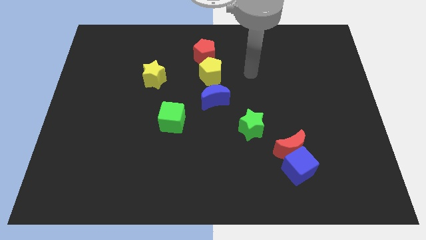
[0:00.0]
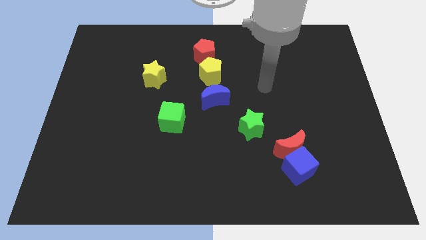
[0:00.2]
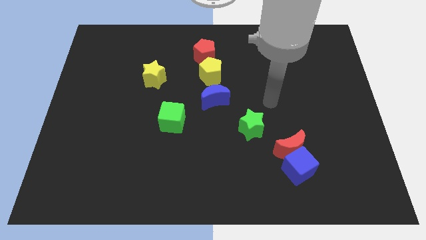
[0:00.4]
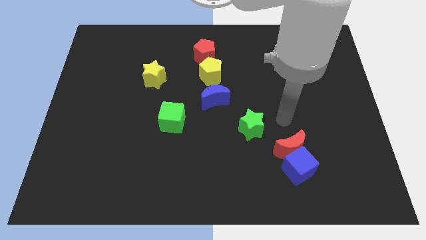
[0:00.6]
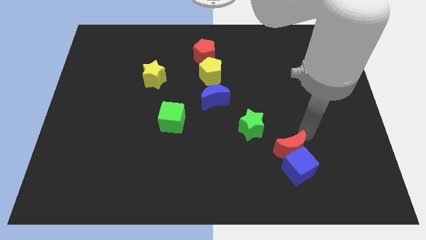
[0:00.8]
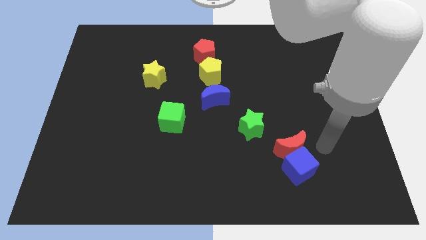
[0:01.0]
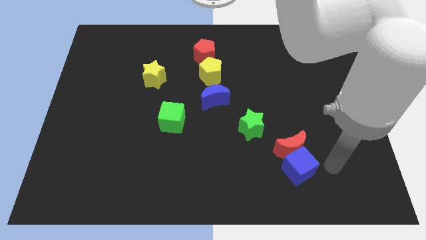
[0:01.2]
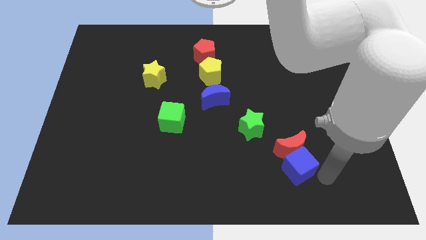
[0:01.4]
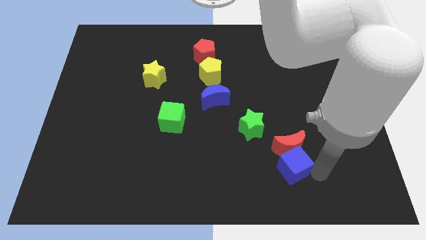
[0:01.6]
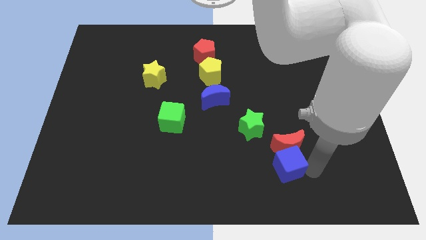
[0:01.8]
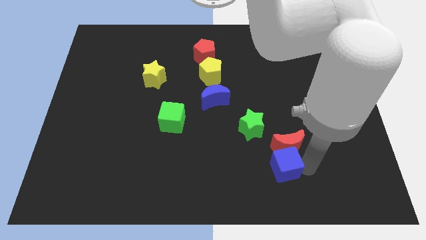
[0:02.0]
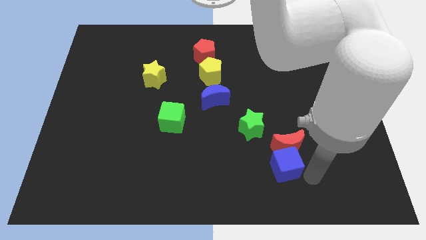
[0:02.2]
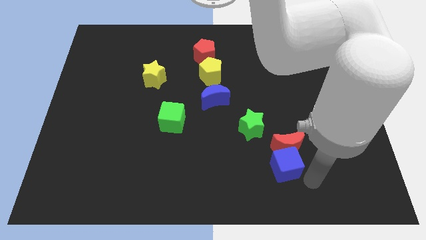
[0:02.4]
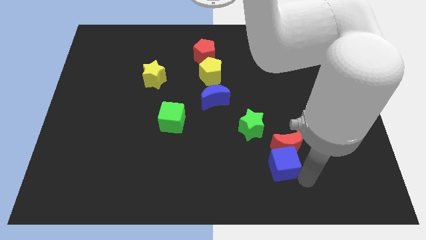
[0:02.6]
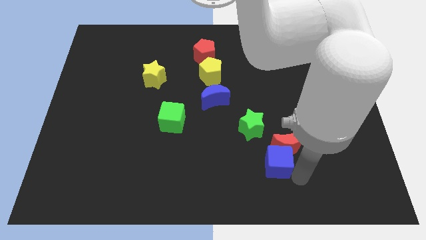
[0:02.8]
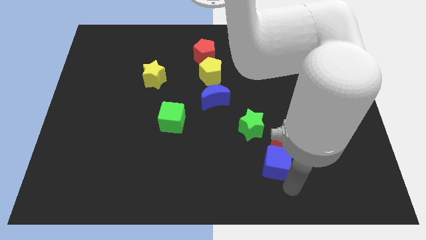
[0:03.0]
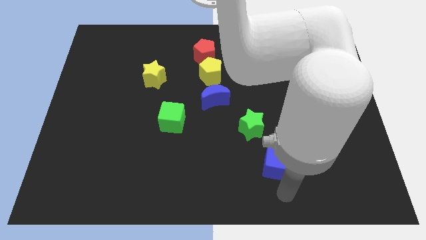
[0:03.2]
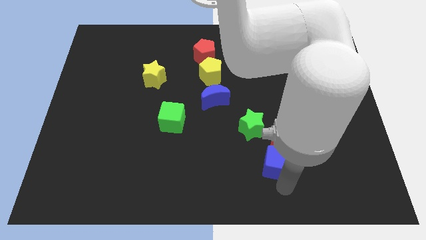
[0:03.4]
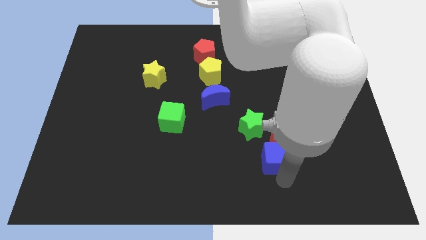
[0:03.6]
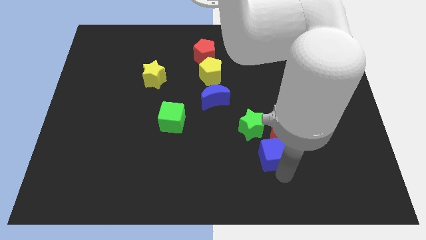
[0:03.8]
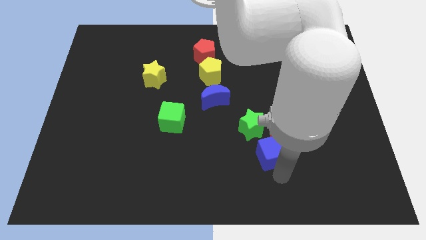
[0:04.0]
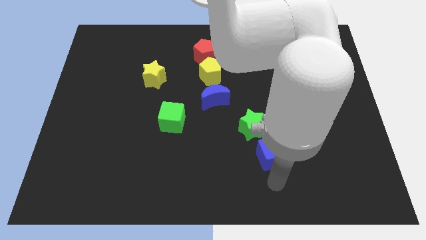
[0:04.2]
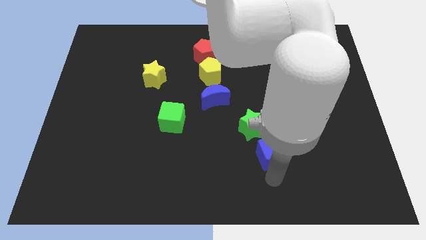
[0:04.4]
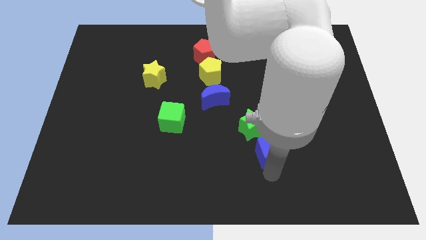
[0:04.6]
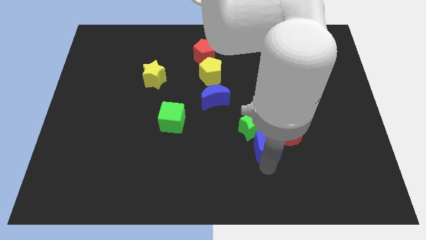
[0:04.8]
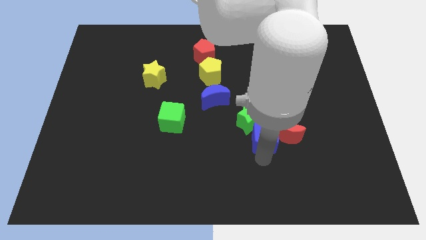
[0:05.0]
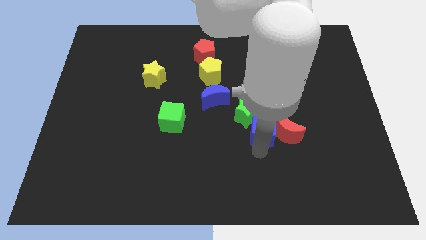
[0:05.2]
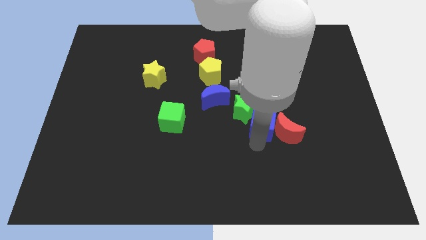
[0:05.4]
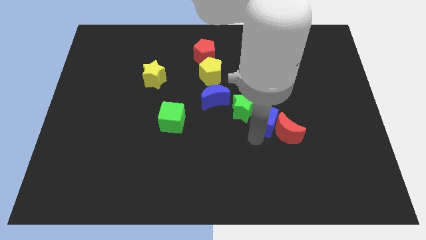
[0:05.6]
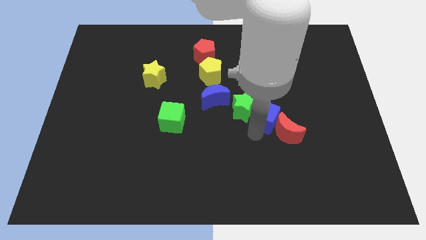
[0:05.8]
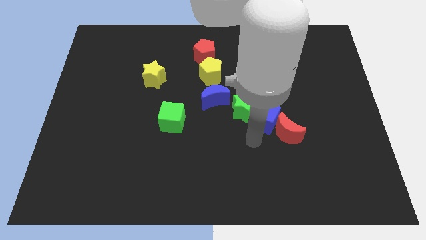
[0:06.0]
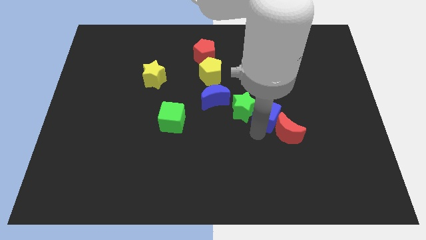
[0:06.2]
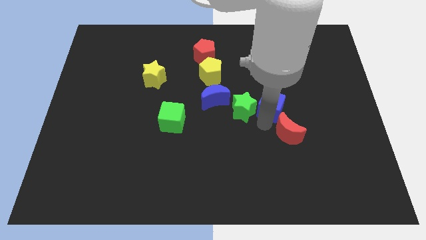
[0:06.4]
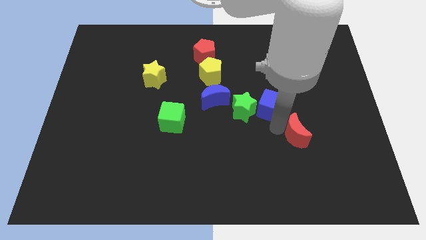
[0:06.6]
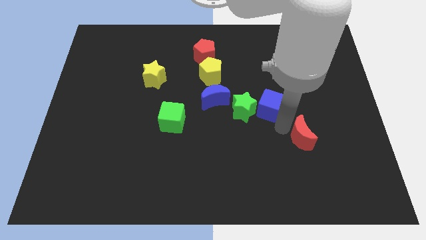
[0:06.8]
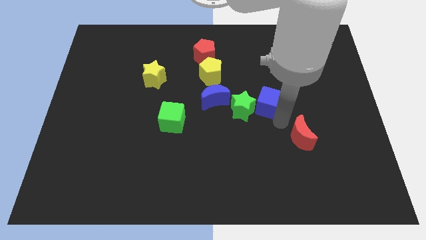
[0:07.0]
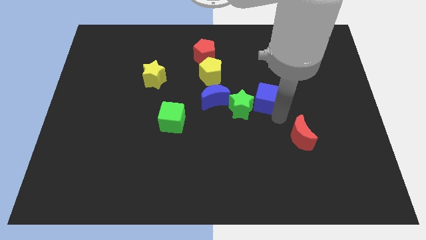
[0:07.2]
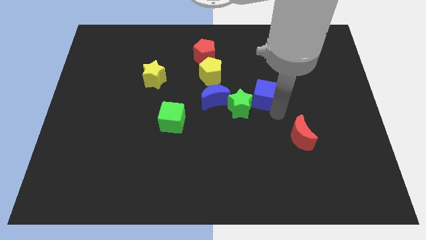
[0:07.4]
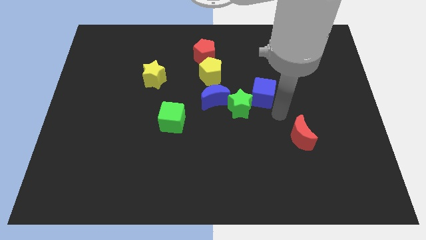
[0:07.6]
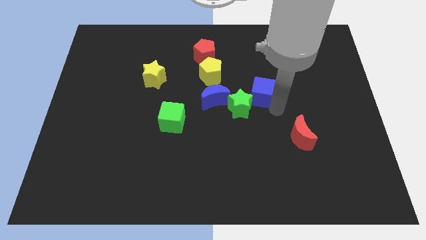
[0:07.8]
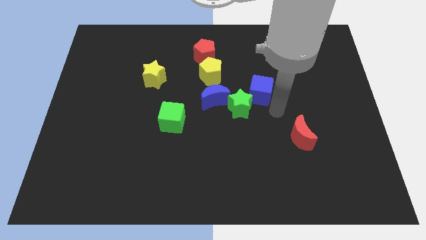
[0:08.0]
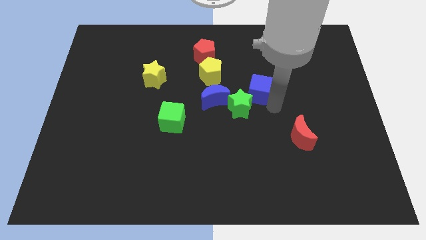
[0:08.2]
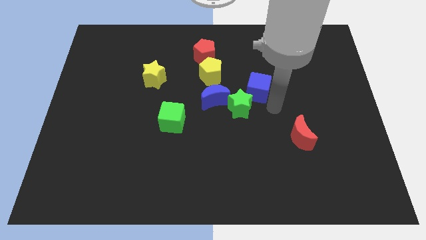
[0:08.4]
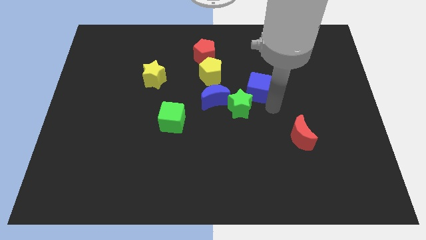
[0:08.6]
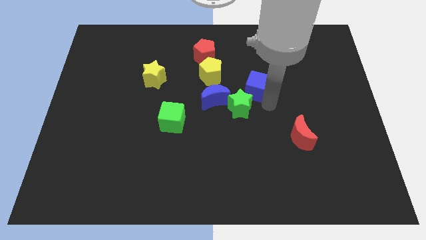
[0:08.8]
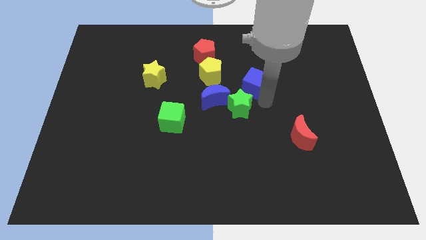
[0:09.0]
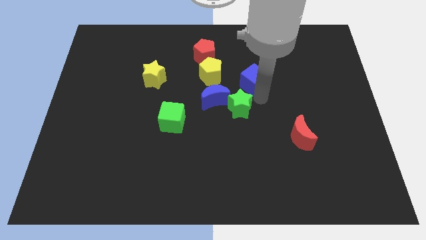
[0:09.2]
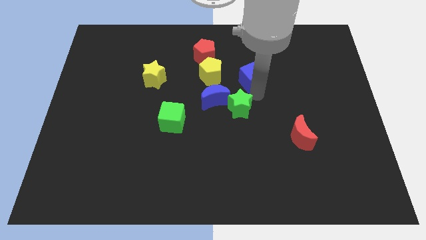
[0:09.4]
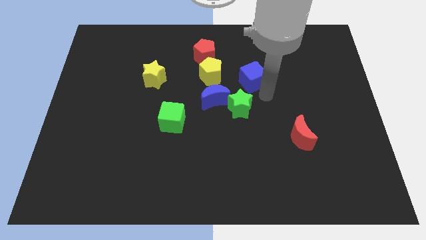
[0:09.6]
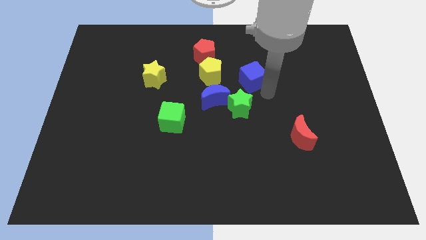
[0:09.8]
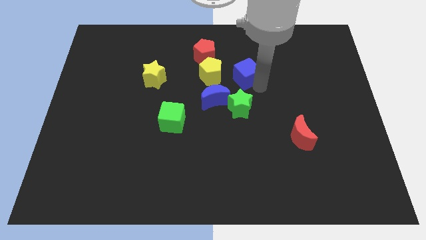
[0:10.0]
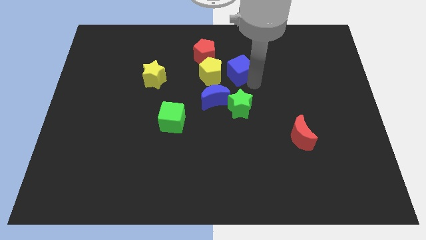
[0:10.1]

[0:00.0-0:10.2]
move the blue cube to the top right side of the yellow pentagon

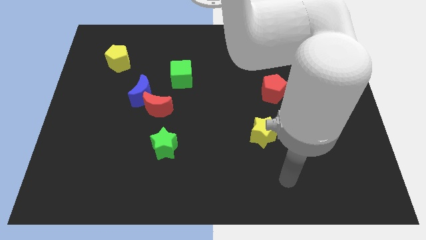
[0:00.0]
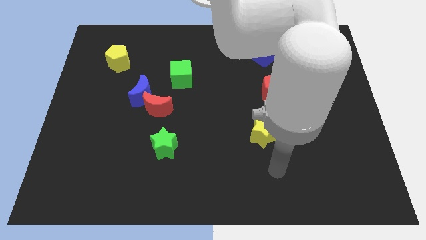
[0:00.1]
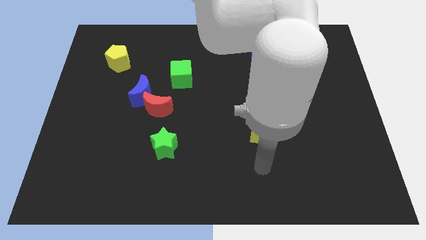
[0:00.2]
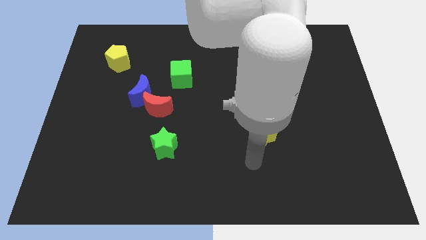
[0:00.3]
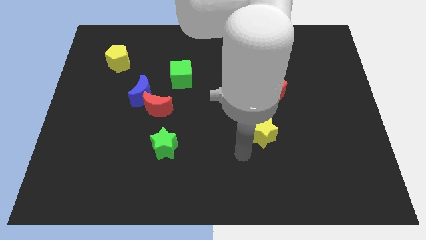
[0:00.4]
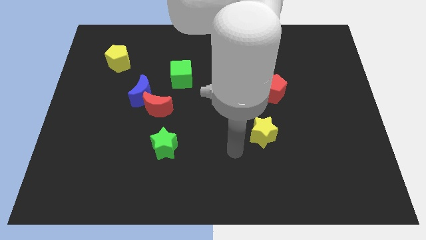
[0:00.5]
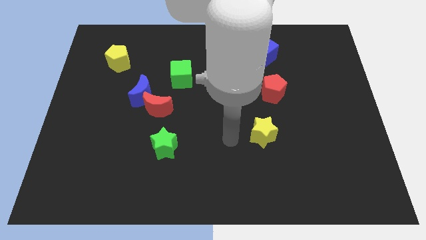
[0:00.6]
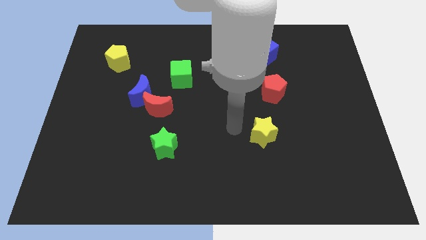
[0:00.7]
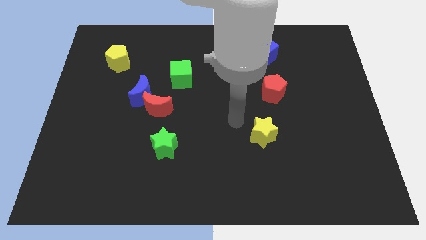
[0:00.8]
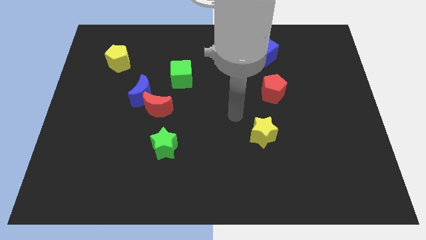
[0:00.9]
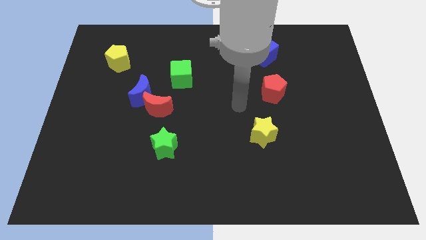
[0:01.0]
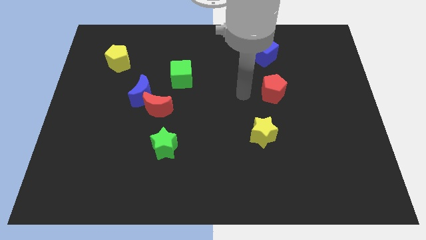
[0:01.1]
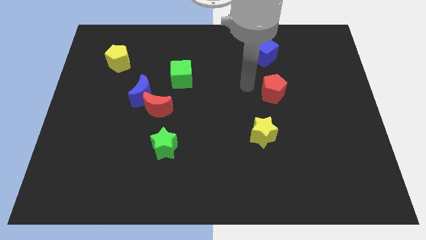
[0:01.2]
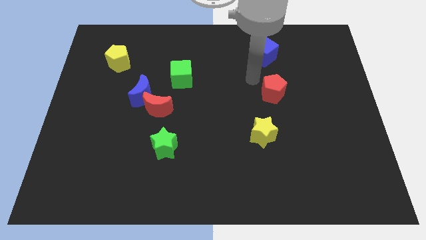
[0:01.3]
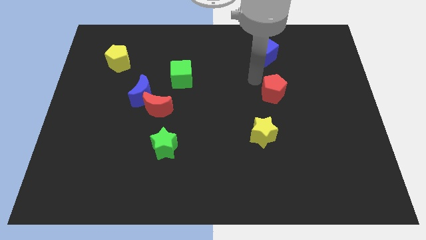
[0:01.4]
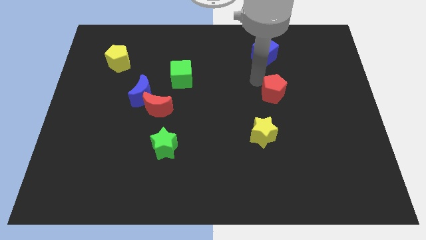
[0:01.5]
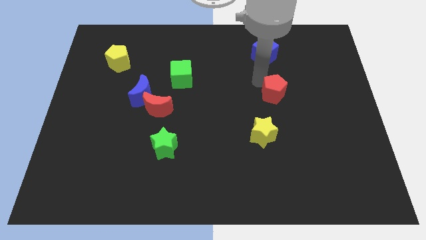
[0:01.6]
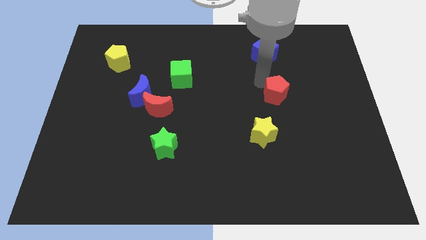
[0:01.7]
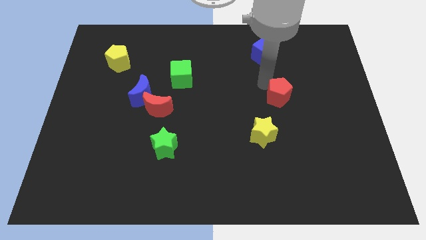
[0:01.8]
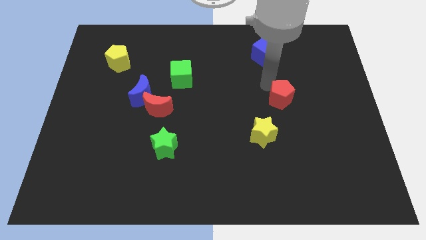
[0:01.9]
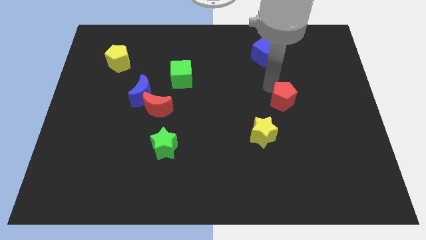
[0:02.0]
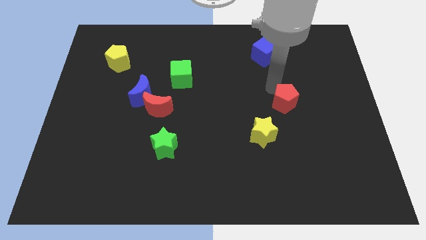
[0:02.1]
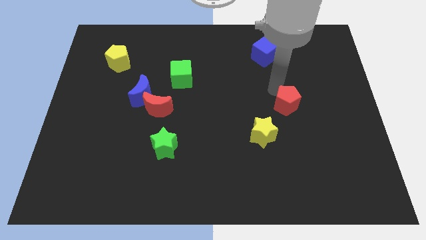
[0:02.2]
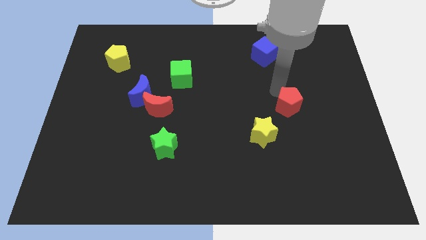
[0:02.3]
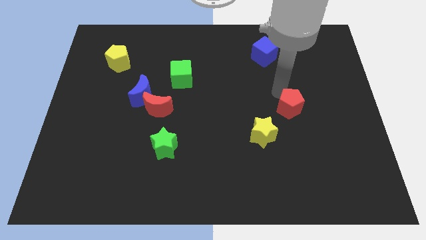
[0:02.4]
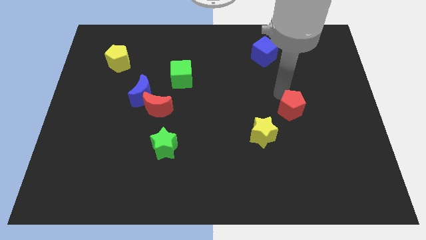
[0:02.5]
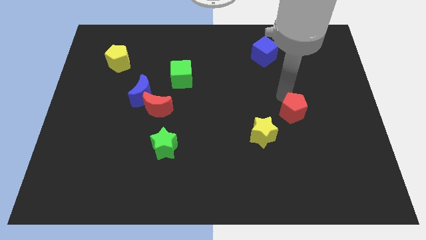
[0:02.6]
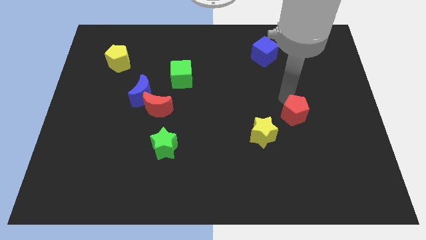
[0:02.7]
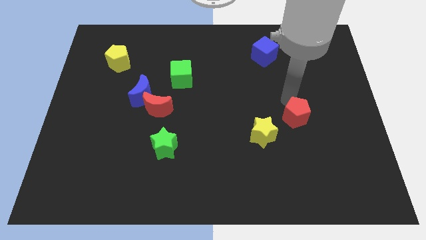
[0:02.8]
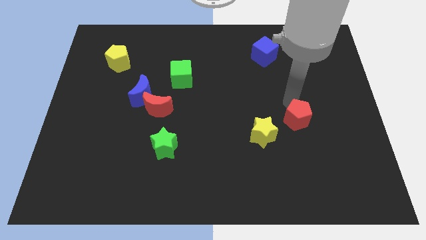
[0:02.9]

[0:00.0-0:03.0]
put the red pentagon just right of the yellow star
